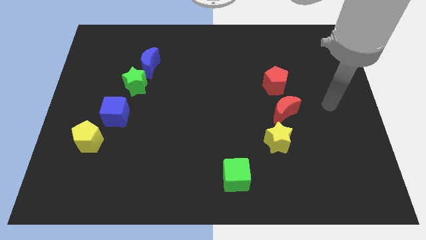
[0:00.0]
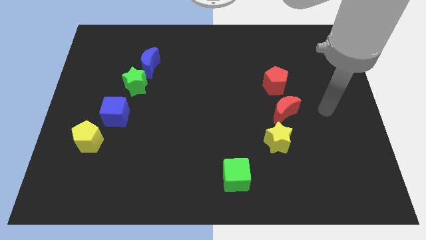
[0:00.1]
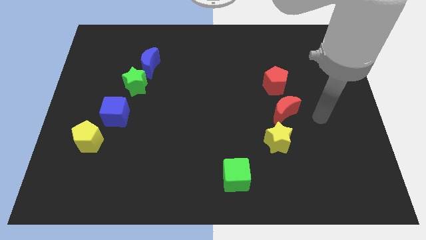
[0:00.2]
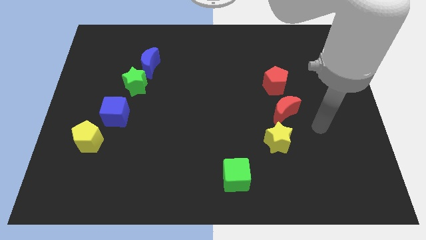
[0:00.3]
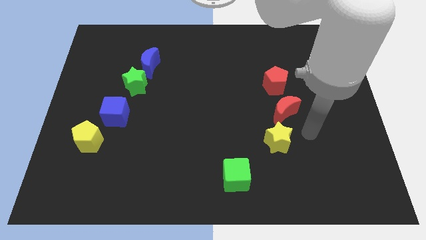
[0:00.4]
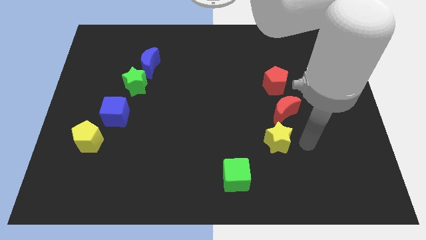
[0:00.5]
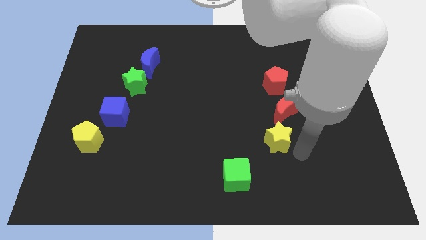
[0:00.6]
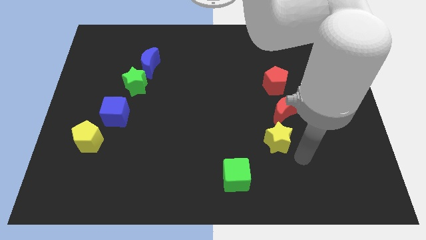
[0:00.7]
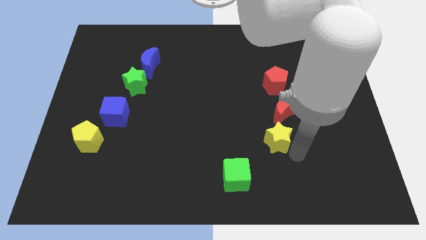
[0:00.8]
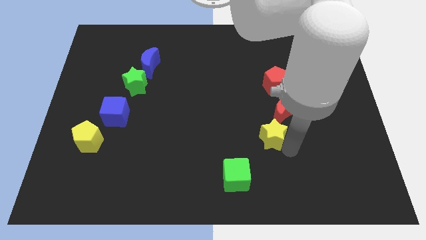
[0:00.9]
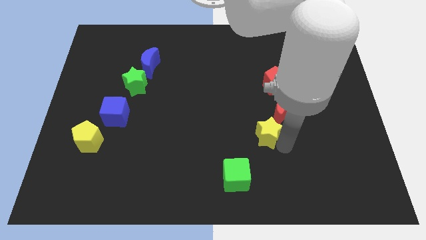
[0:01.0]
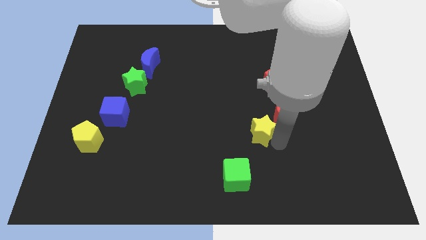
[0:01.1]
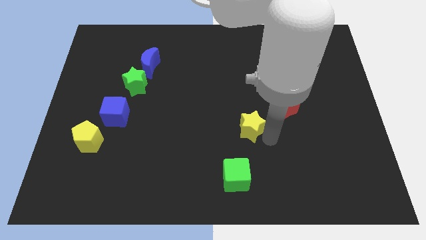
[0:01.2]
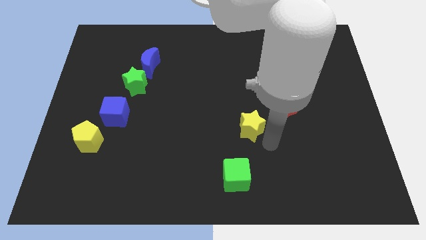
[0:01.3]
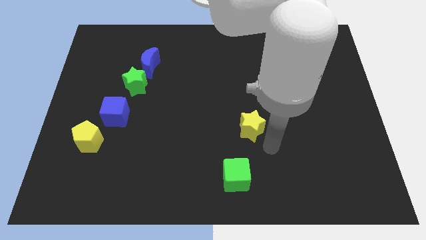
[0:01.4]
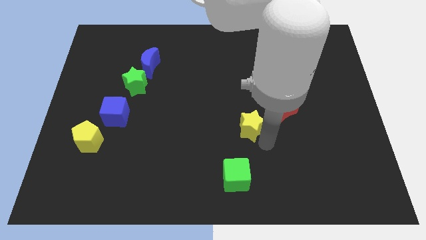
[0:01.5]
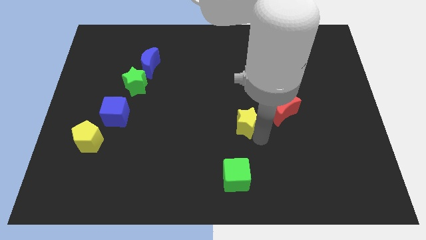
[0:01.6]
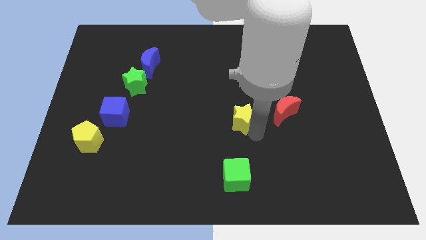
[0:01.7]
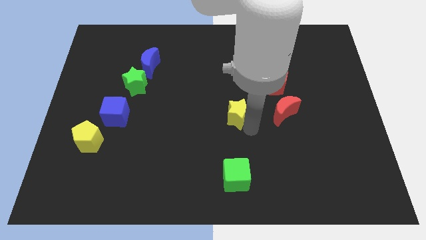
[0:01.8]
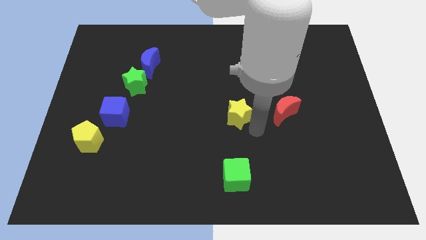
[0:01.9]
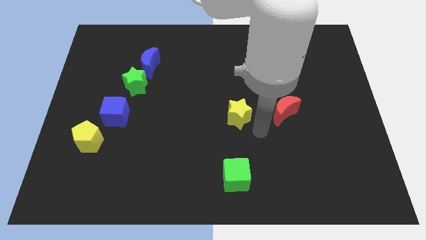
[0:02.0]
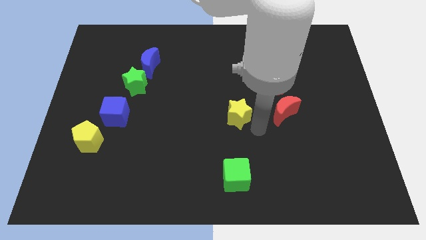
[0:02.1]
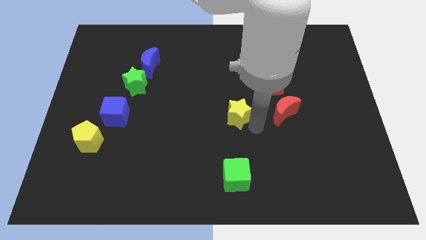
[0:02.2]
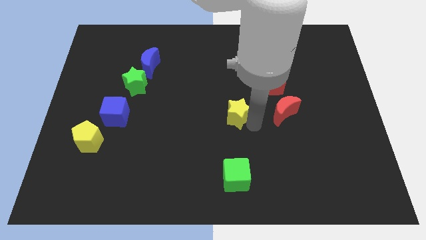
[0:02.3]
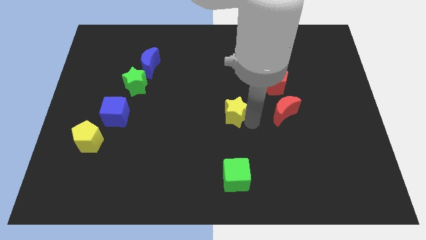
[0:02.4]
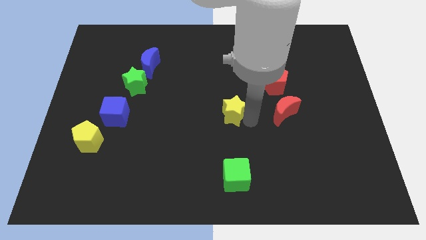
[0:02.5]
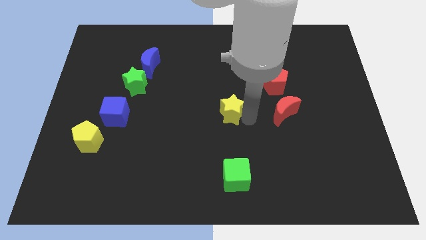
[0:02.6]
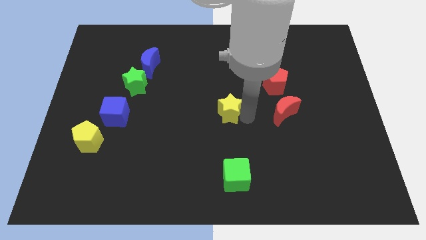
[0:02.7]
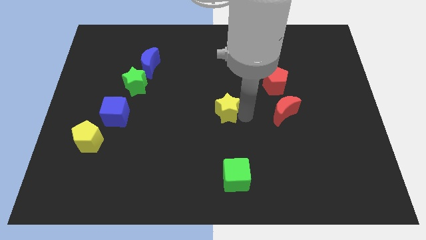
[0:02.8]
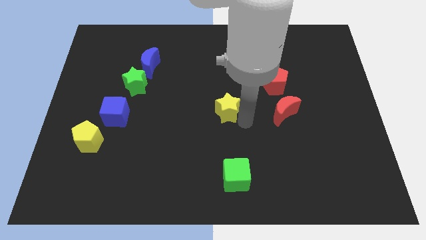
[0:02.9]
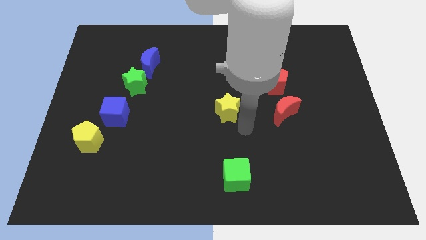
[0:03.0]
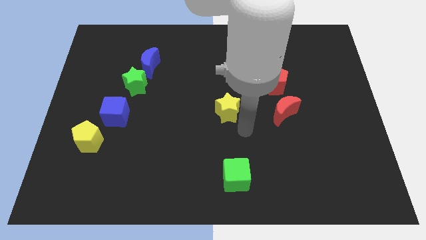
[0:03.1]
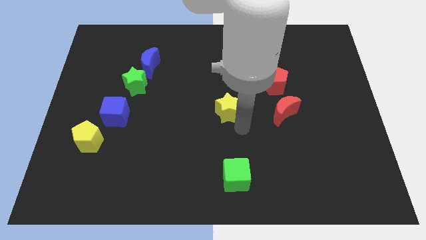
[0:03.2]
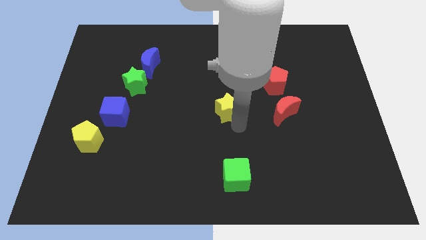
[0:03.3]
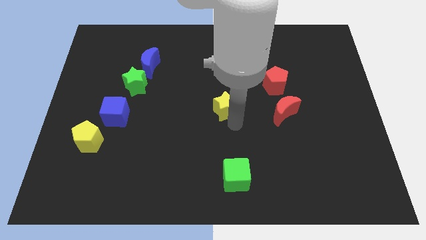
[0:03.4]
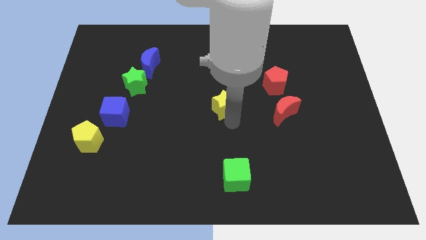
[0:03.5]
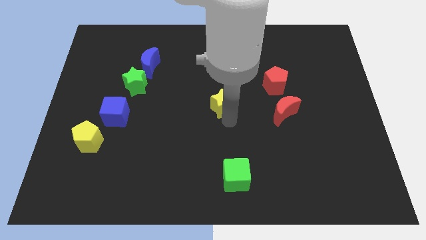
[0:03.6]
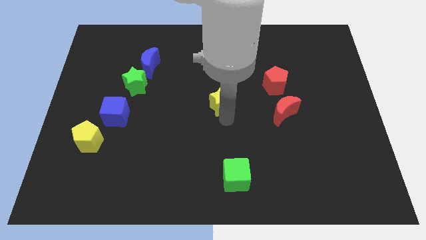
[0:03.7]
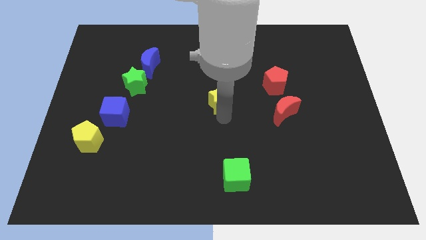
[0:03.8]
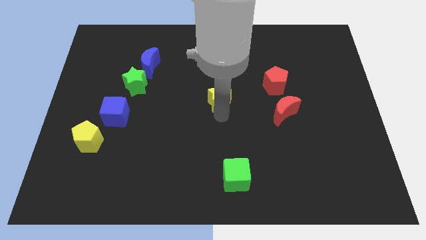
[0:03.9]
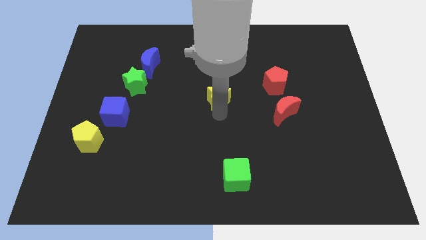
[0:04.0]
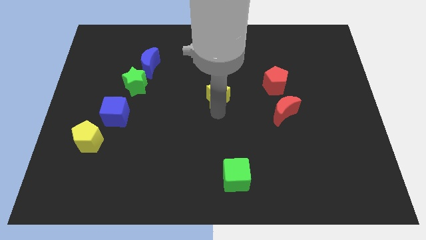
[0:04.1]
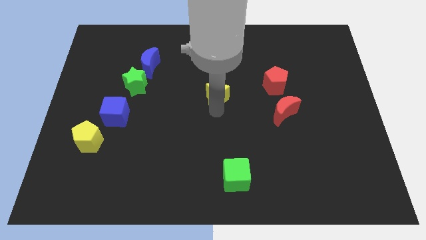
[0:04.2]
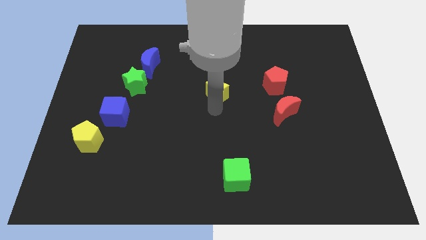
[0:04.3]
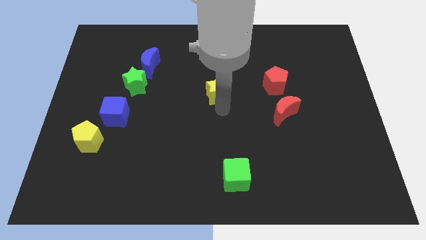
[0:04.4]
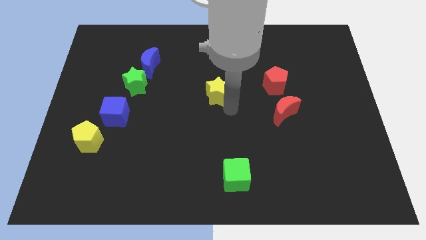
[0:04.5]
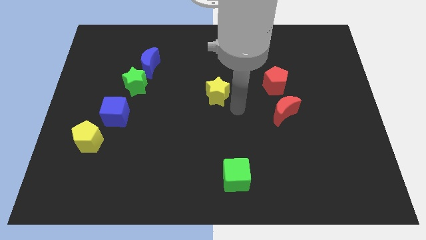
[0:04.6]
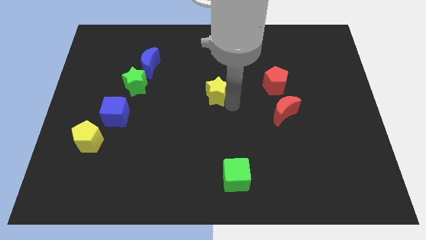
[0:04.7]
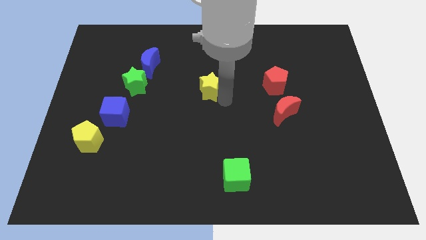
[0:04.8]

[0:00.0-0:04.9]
move the yellow star up and to the left diagonally

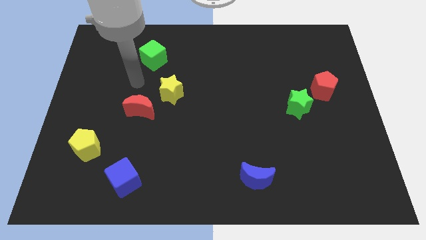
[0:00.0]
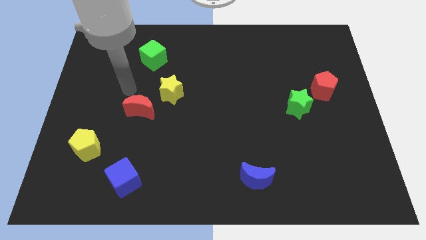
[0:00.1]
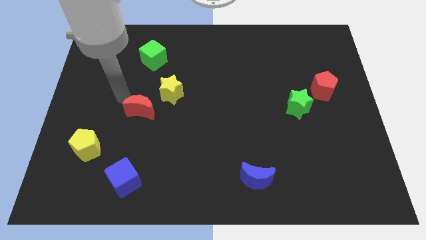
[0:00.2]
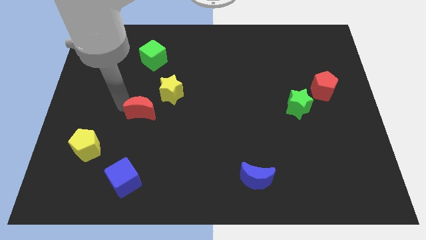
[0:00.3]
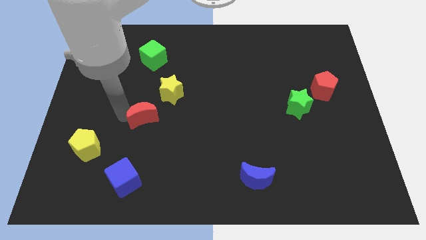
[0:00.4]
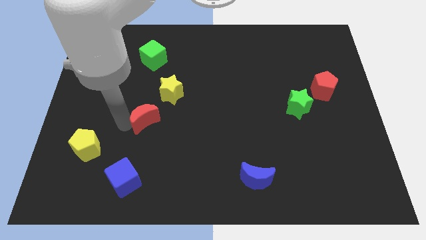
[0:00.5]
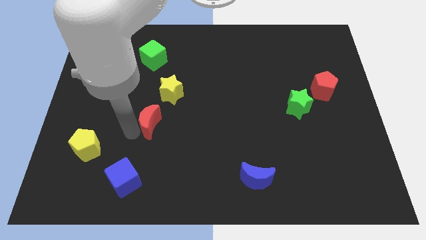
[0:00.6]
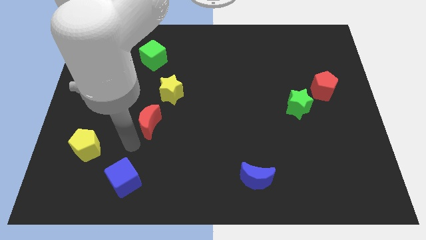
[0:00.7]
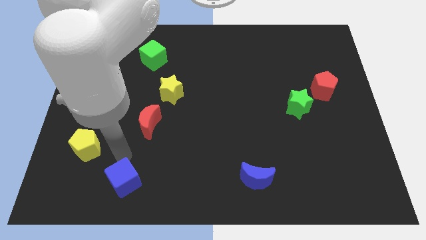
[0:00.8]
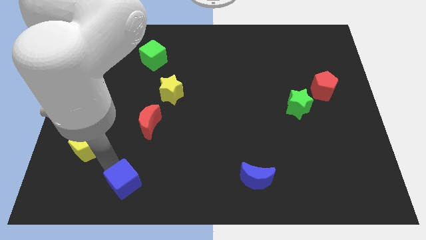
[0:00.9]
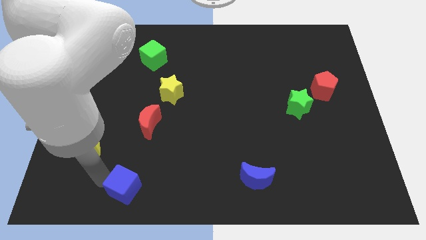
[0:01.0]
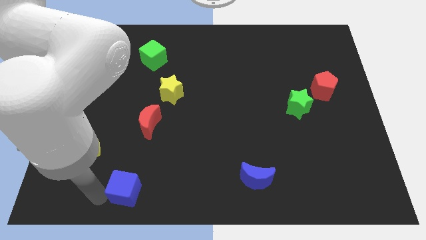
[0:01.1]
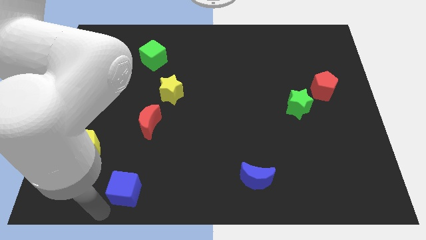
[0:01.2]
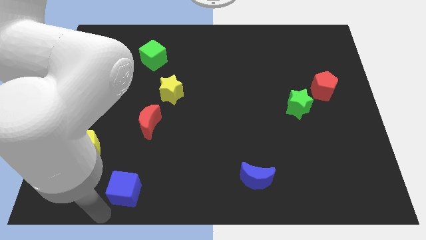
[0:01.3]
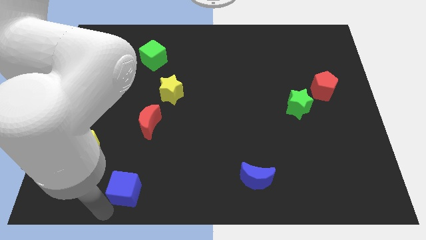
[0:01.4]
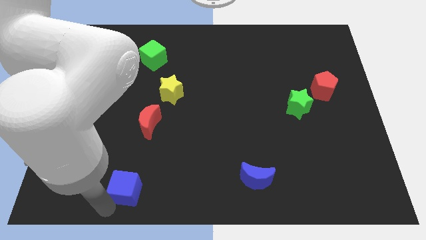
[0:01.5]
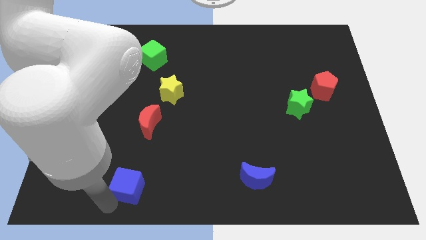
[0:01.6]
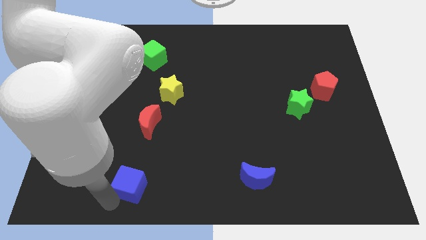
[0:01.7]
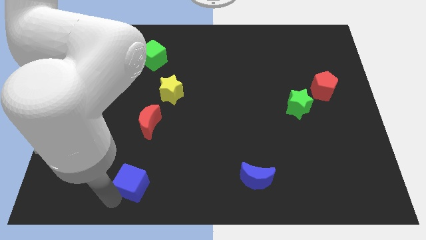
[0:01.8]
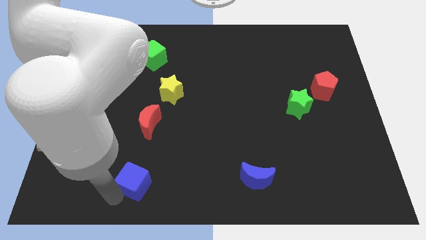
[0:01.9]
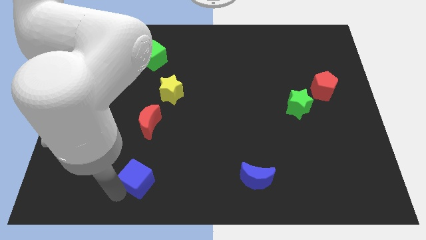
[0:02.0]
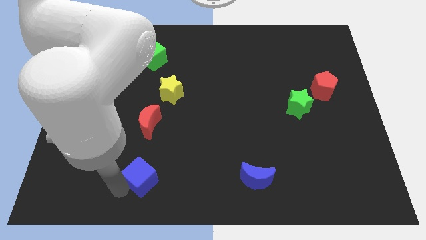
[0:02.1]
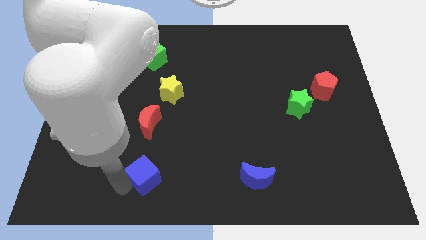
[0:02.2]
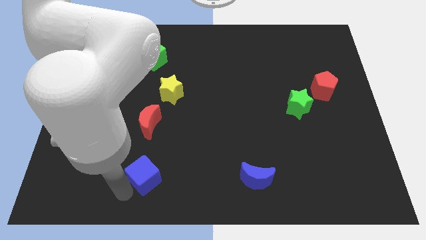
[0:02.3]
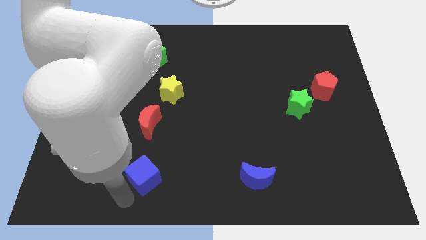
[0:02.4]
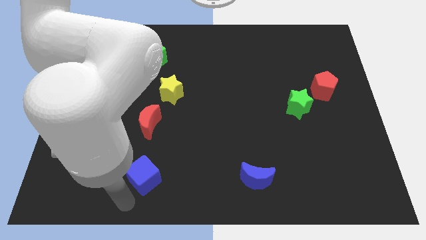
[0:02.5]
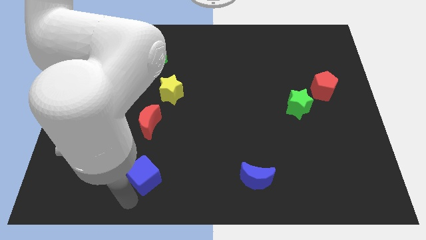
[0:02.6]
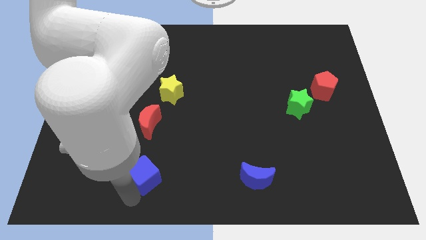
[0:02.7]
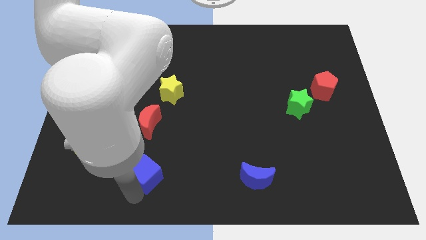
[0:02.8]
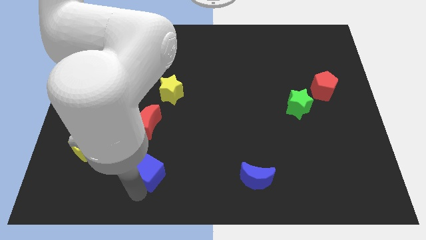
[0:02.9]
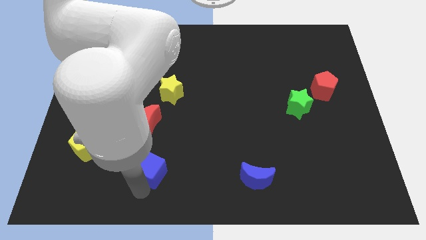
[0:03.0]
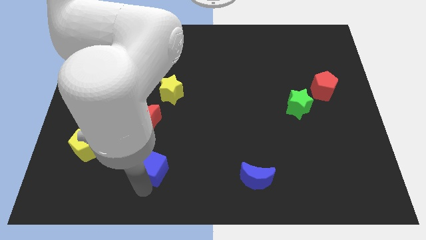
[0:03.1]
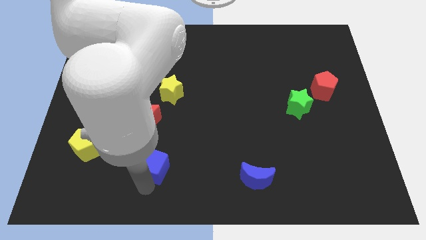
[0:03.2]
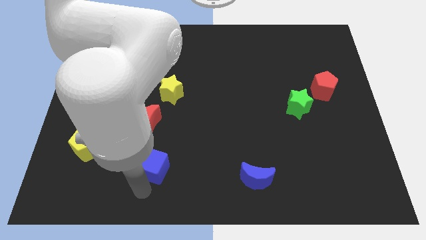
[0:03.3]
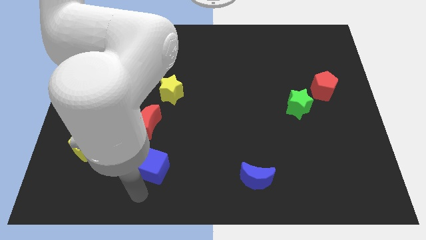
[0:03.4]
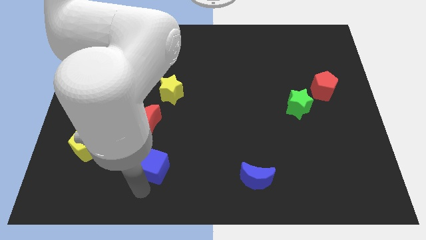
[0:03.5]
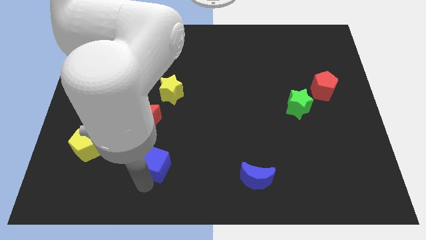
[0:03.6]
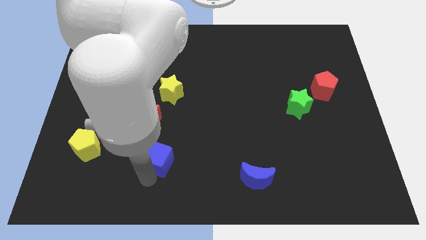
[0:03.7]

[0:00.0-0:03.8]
move the blue cube up and then right somewhat
